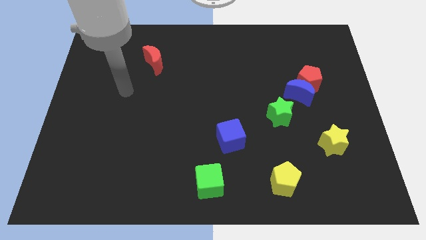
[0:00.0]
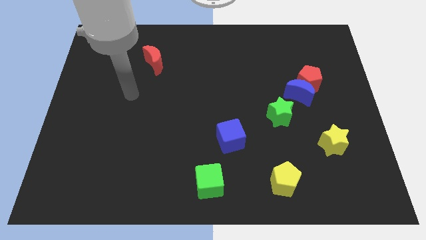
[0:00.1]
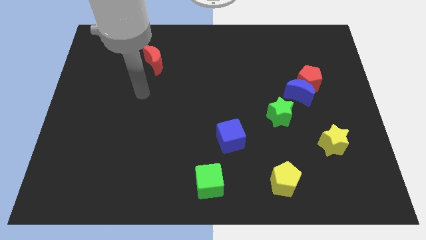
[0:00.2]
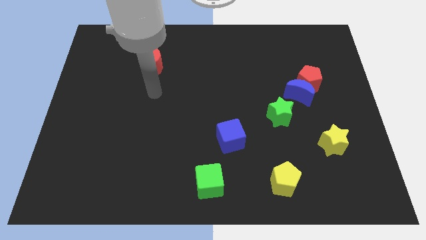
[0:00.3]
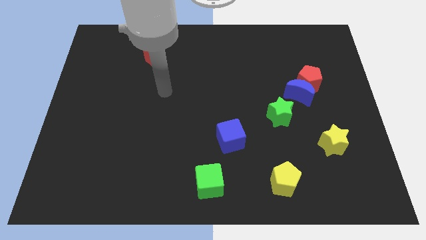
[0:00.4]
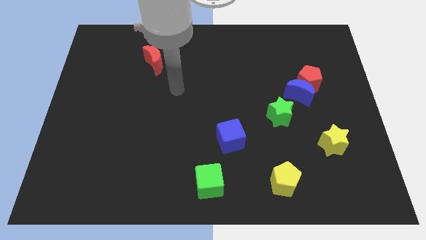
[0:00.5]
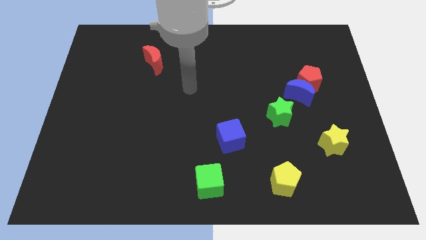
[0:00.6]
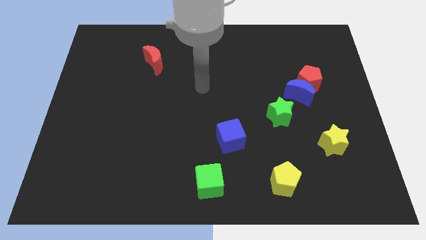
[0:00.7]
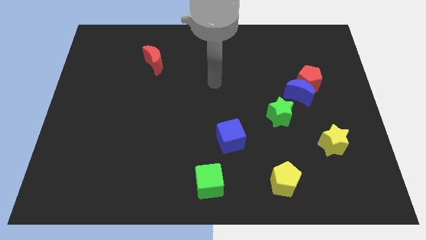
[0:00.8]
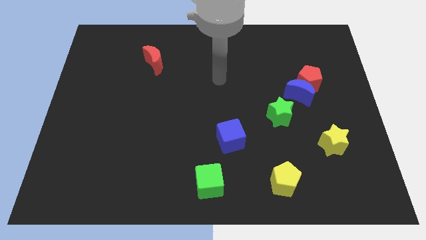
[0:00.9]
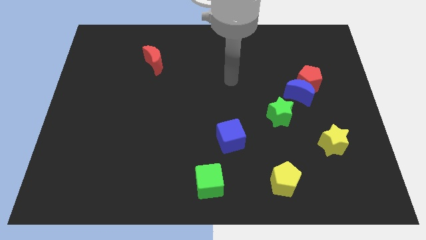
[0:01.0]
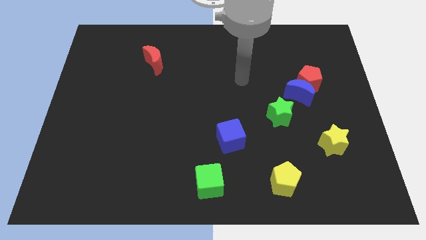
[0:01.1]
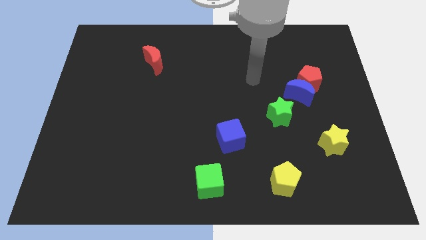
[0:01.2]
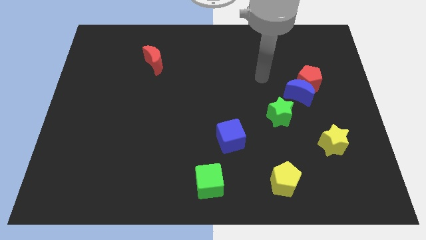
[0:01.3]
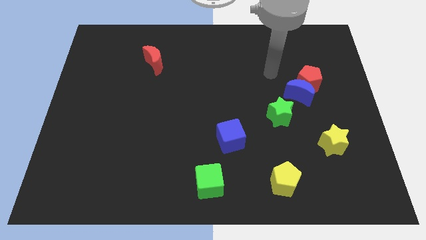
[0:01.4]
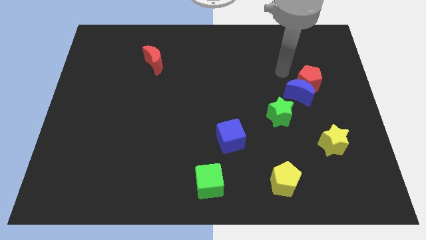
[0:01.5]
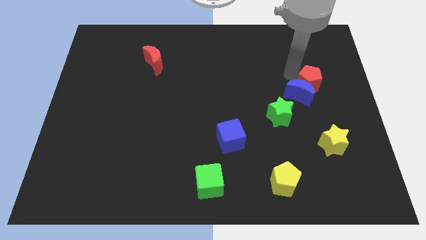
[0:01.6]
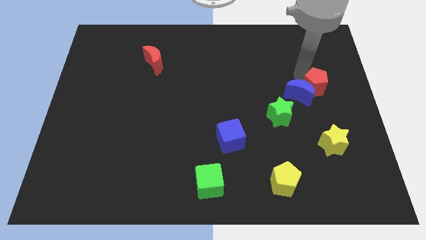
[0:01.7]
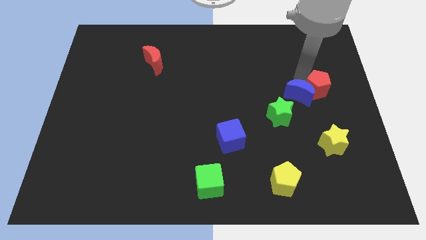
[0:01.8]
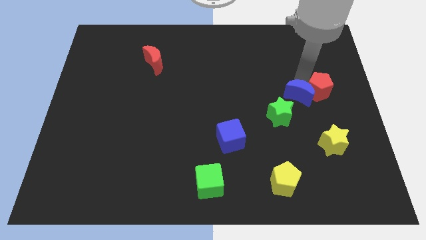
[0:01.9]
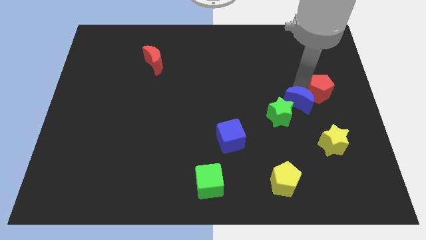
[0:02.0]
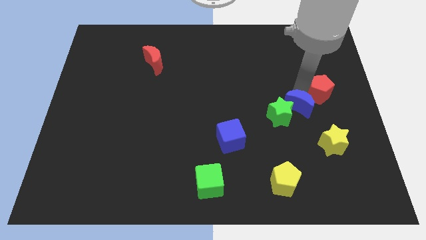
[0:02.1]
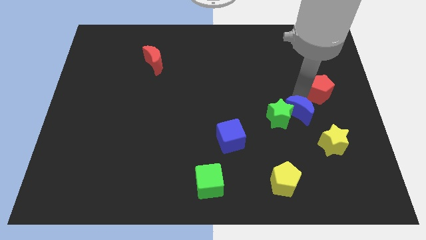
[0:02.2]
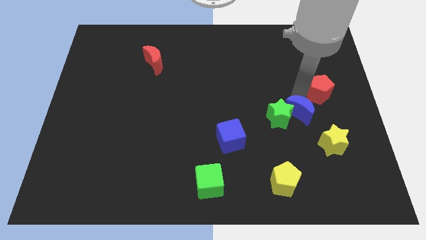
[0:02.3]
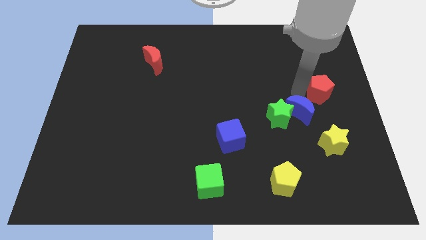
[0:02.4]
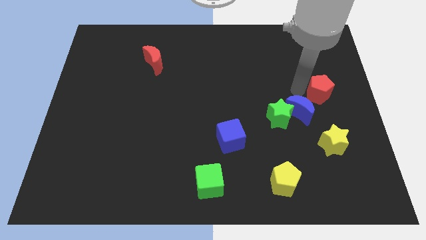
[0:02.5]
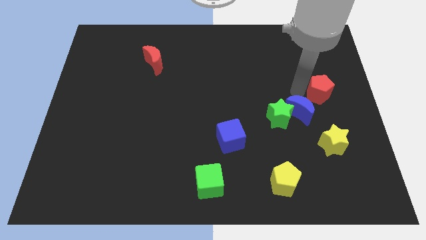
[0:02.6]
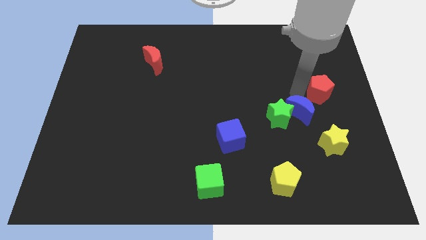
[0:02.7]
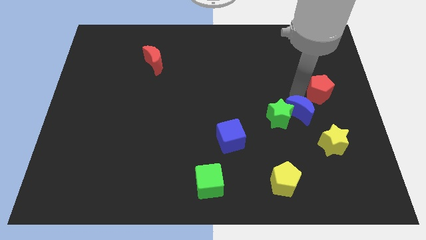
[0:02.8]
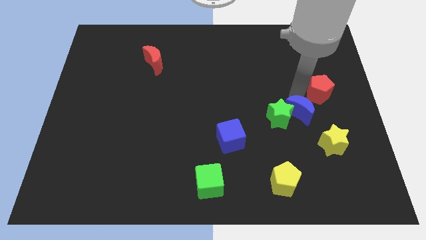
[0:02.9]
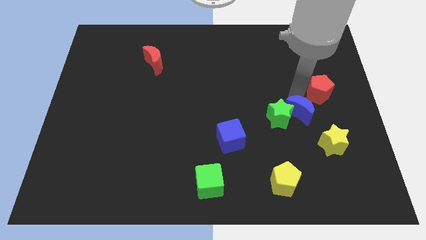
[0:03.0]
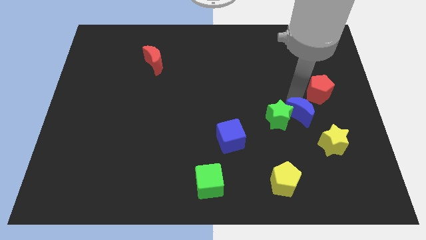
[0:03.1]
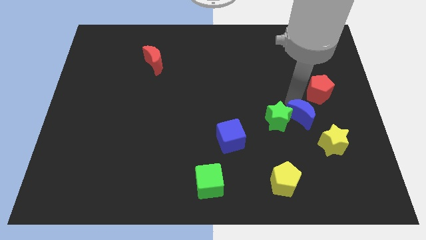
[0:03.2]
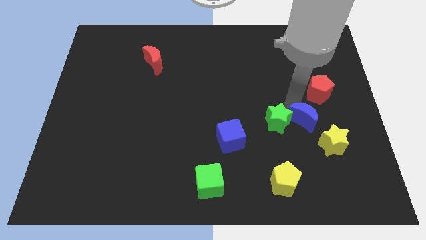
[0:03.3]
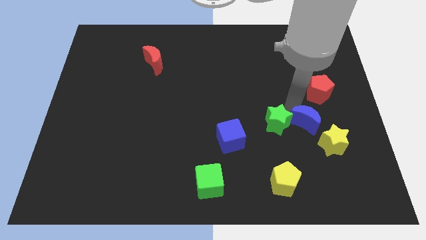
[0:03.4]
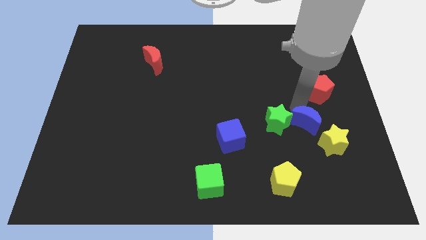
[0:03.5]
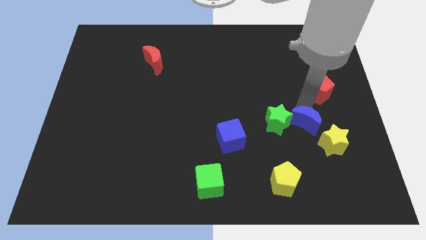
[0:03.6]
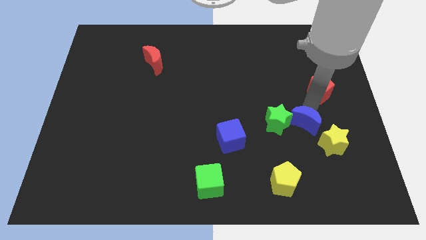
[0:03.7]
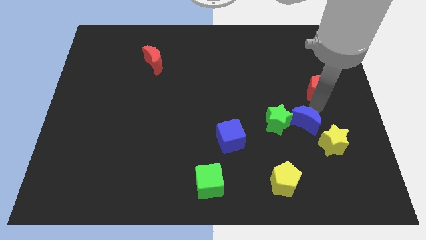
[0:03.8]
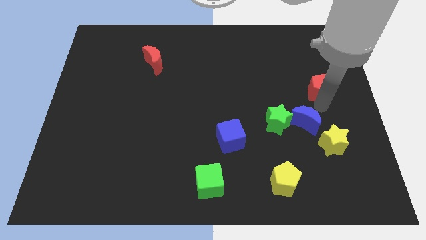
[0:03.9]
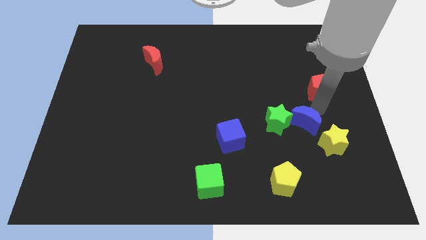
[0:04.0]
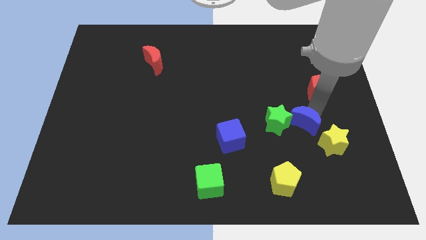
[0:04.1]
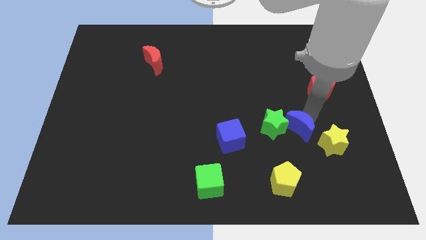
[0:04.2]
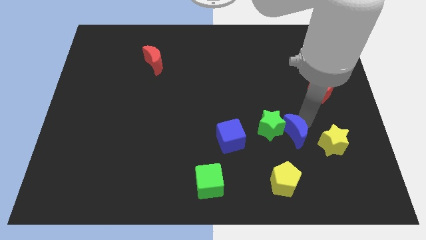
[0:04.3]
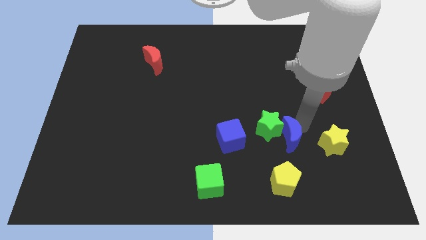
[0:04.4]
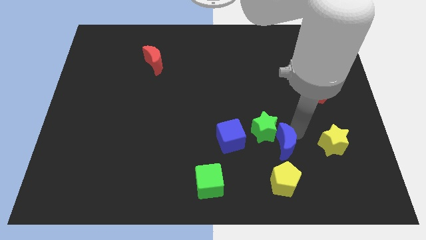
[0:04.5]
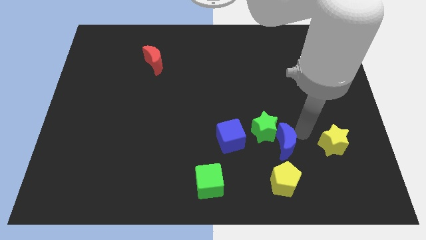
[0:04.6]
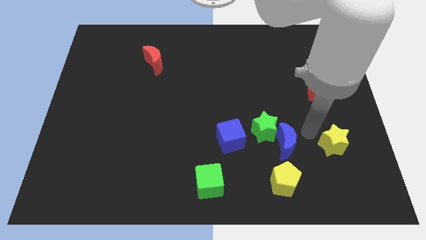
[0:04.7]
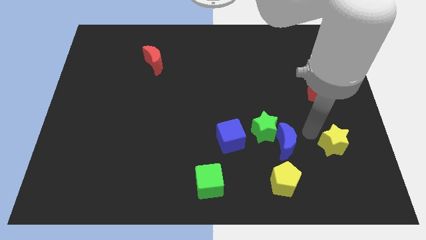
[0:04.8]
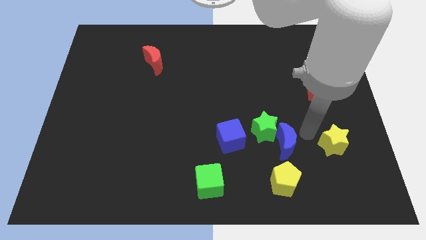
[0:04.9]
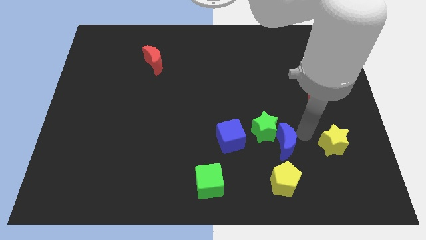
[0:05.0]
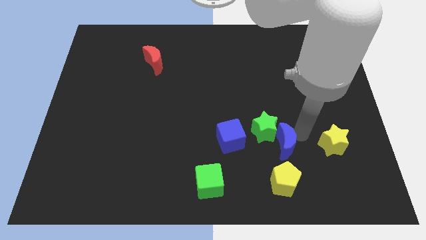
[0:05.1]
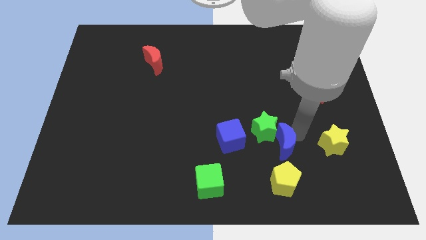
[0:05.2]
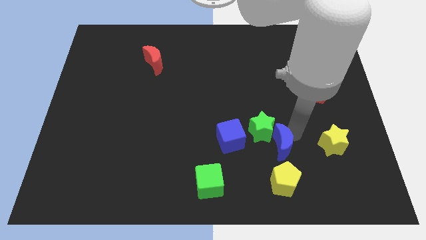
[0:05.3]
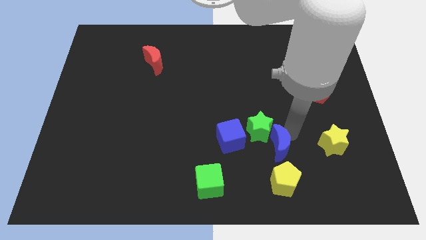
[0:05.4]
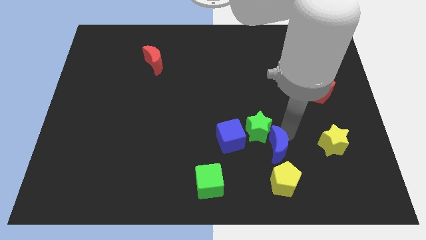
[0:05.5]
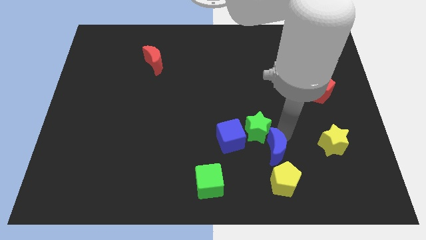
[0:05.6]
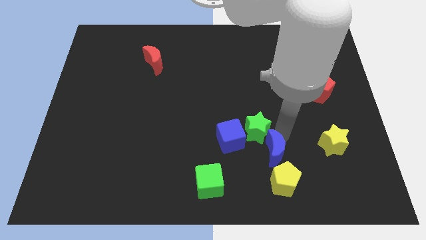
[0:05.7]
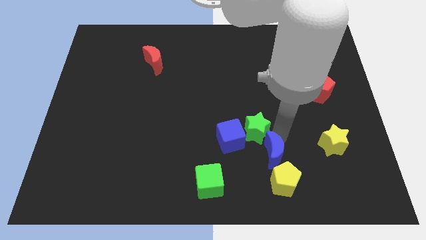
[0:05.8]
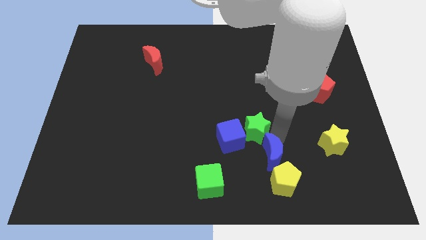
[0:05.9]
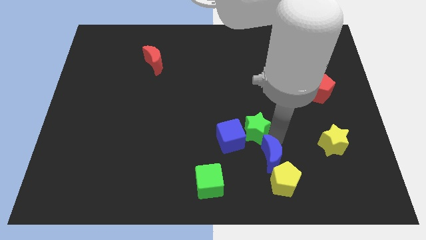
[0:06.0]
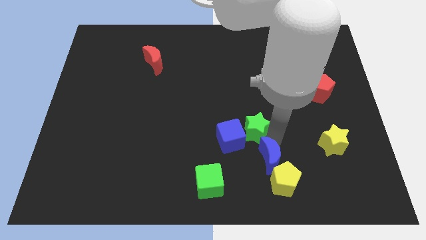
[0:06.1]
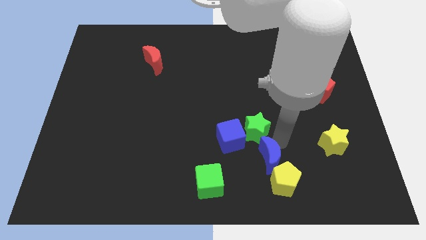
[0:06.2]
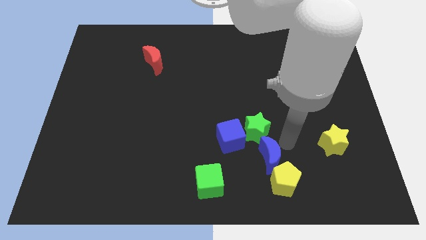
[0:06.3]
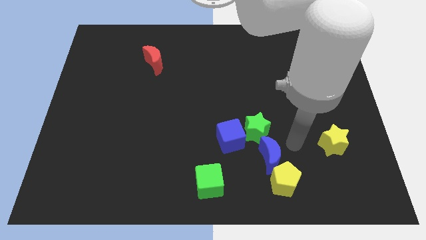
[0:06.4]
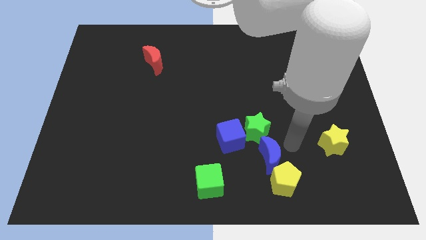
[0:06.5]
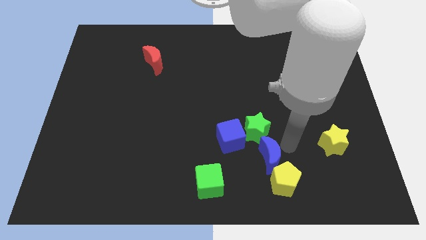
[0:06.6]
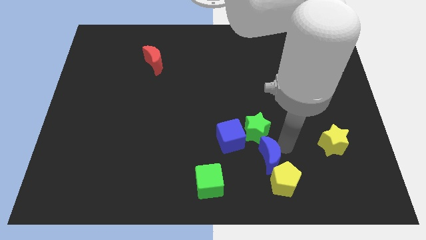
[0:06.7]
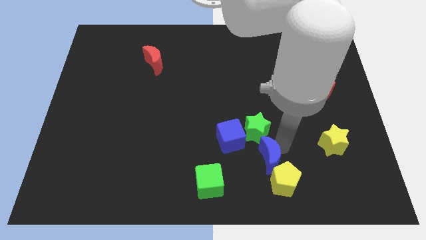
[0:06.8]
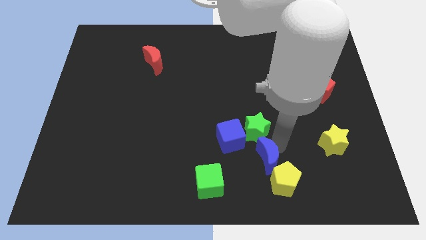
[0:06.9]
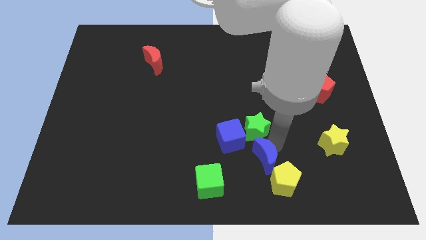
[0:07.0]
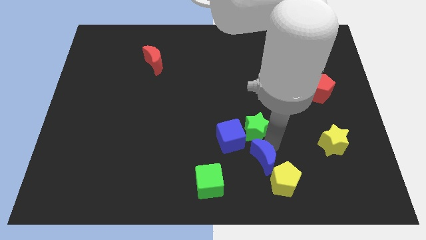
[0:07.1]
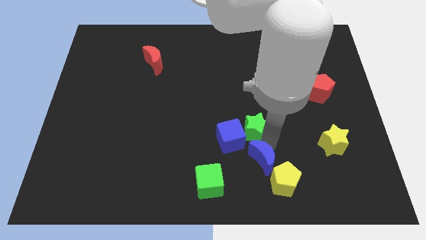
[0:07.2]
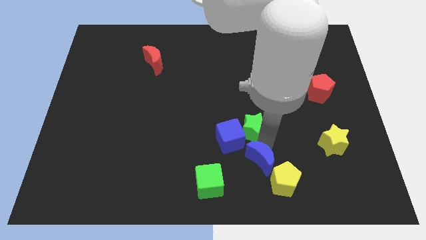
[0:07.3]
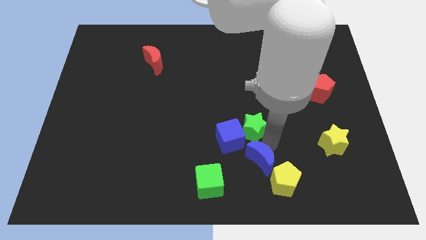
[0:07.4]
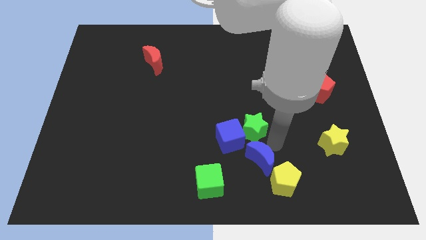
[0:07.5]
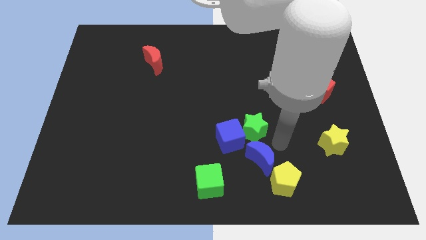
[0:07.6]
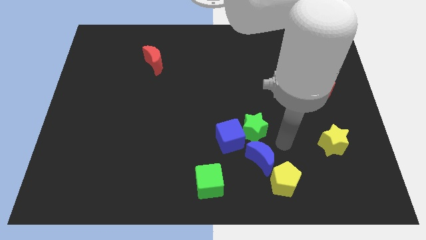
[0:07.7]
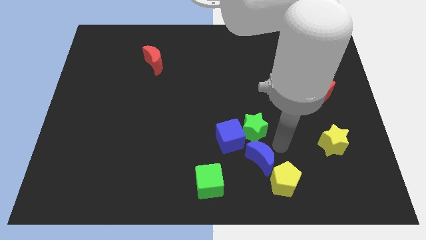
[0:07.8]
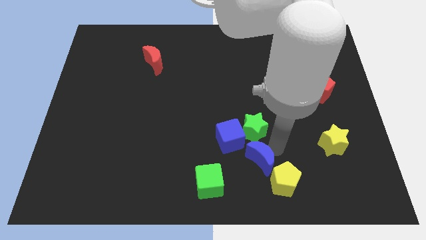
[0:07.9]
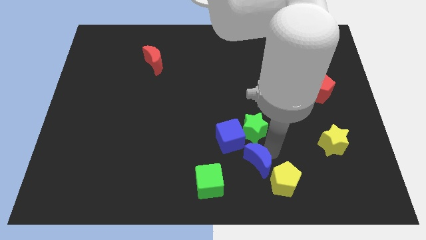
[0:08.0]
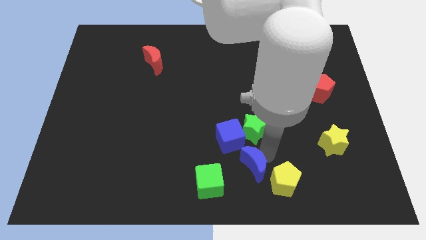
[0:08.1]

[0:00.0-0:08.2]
put the blue moon below the blue cube

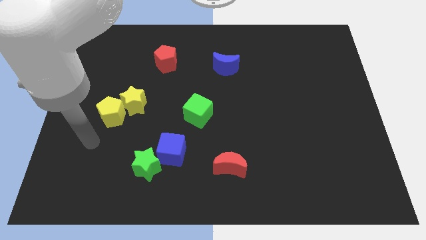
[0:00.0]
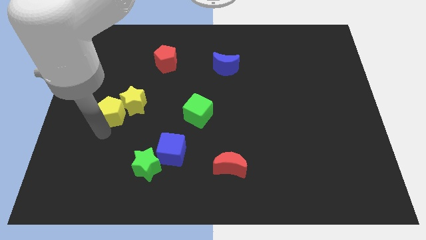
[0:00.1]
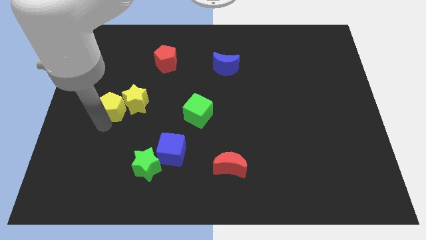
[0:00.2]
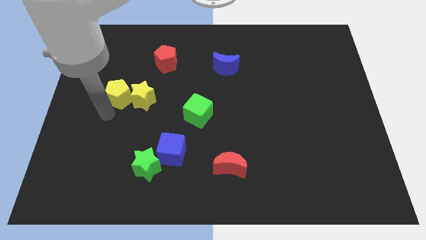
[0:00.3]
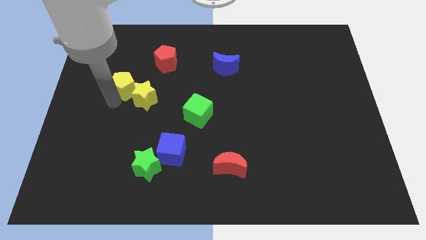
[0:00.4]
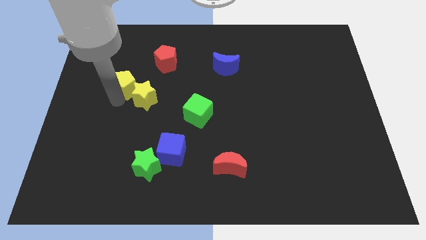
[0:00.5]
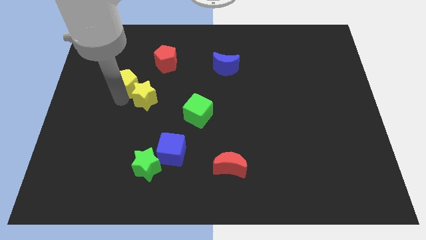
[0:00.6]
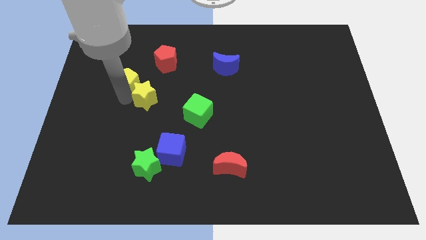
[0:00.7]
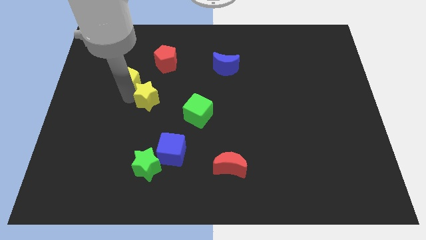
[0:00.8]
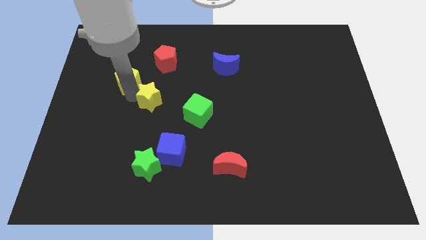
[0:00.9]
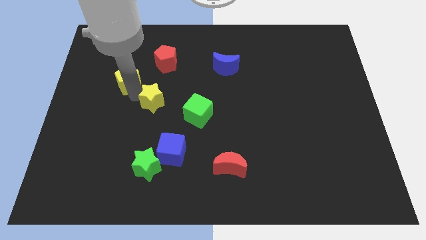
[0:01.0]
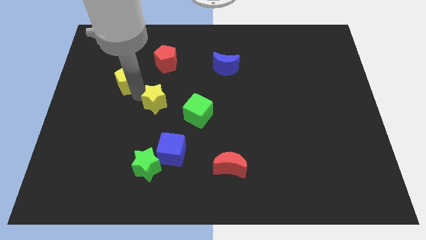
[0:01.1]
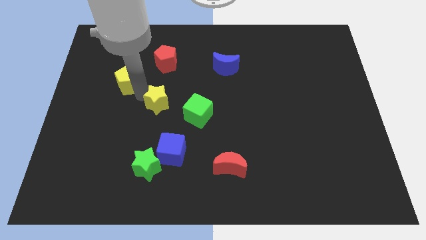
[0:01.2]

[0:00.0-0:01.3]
move the yellow star diagonally up and to the left of the green cube
